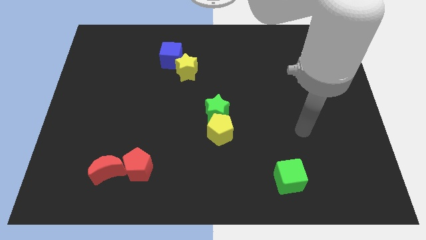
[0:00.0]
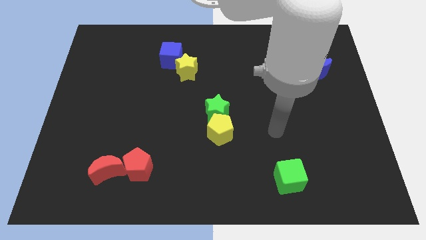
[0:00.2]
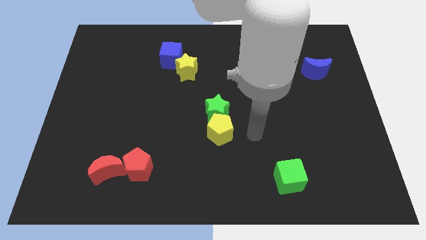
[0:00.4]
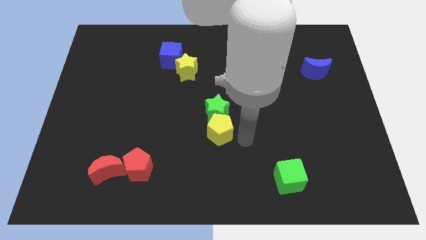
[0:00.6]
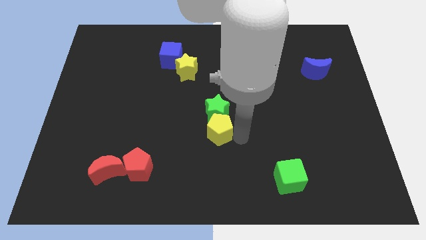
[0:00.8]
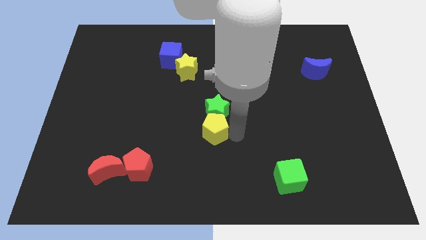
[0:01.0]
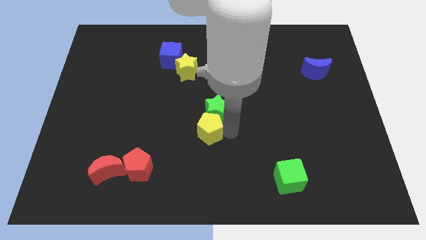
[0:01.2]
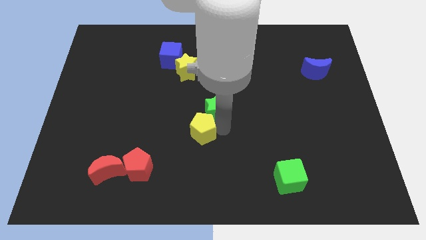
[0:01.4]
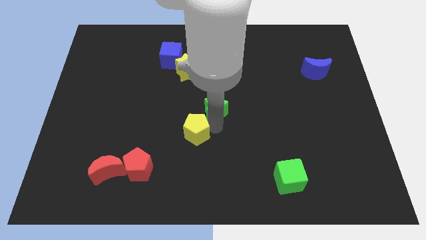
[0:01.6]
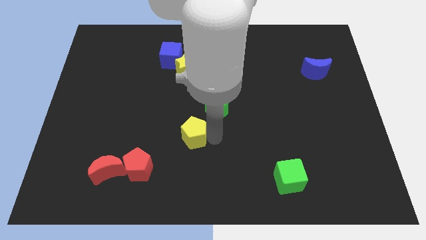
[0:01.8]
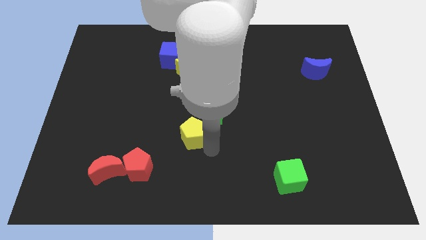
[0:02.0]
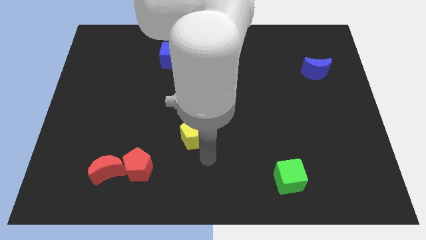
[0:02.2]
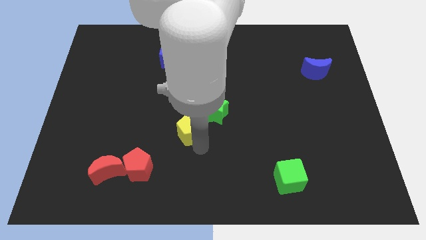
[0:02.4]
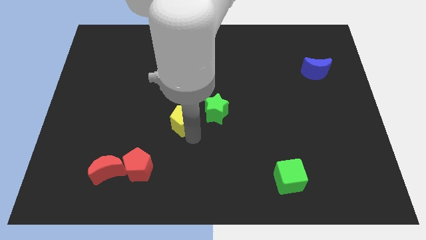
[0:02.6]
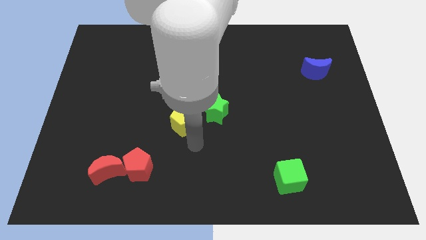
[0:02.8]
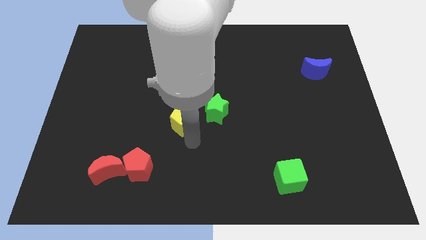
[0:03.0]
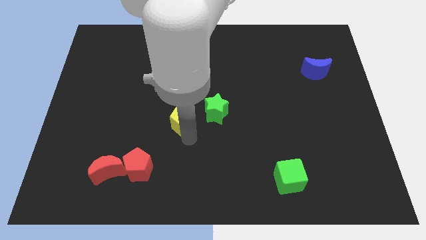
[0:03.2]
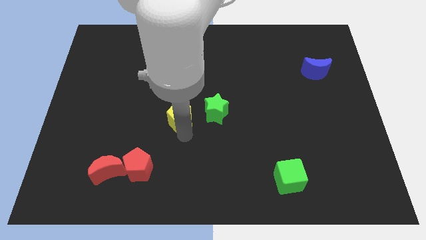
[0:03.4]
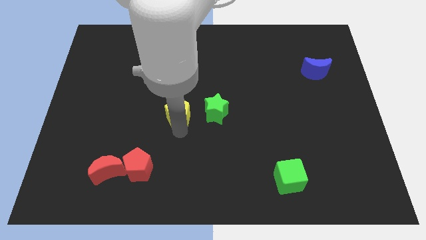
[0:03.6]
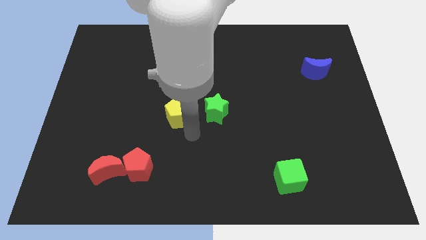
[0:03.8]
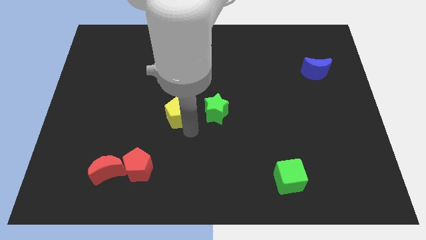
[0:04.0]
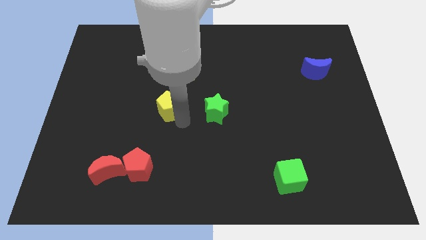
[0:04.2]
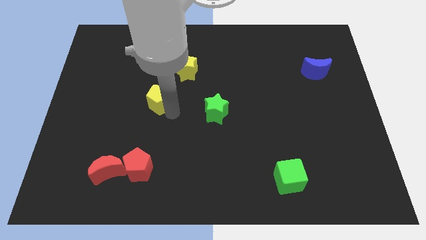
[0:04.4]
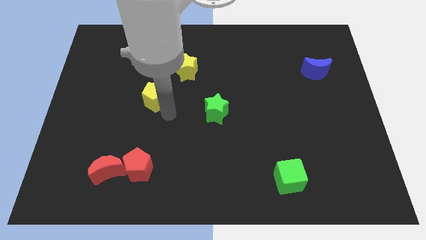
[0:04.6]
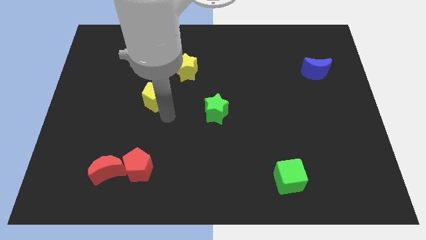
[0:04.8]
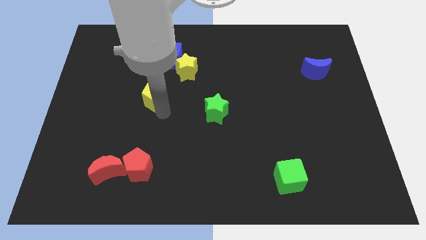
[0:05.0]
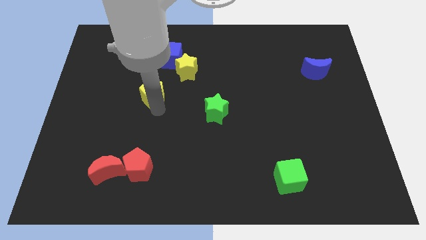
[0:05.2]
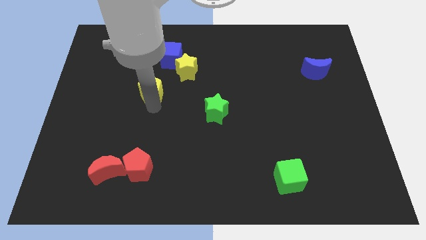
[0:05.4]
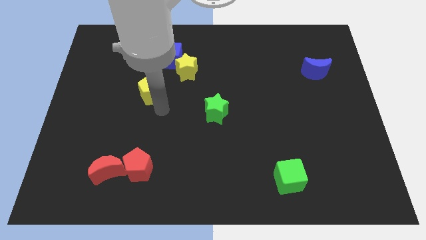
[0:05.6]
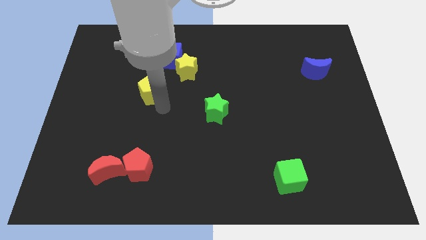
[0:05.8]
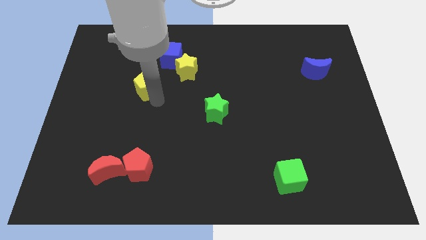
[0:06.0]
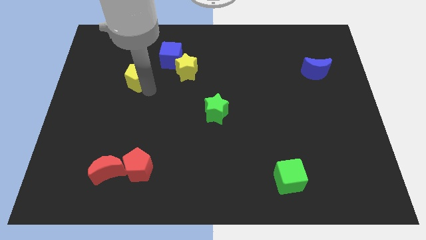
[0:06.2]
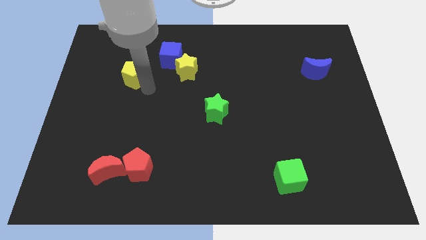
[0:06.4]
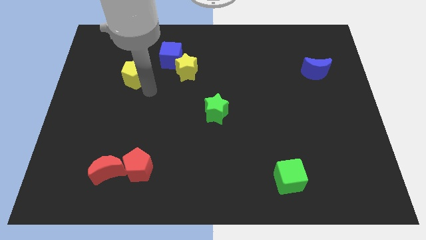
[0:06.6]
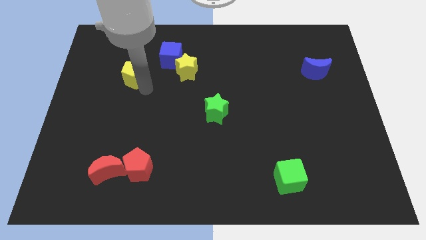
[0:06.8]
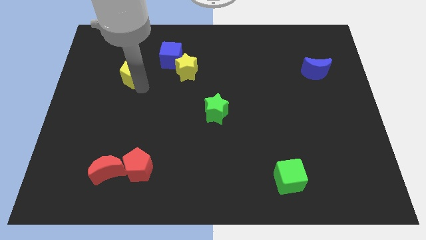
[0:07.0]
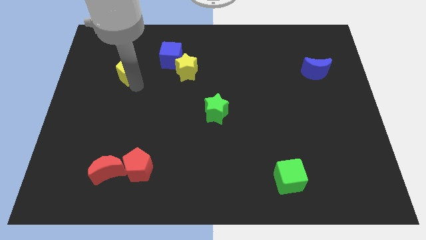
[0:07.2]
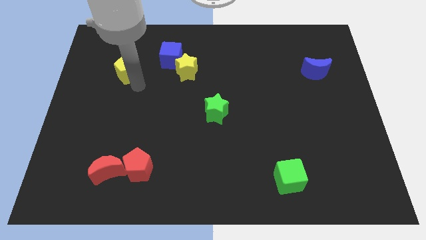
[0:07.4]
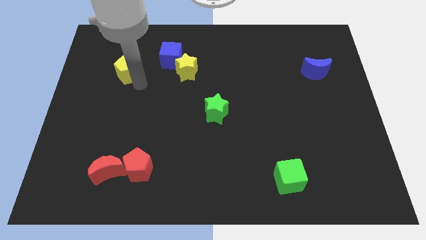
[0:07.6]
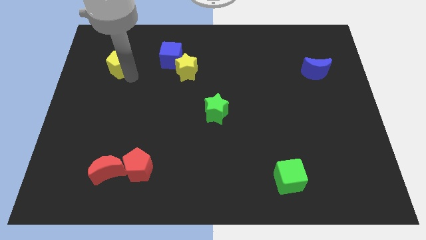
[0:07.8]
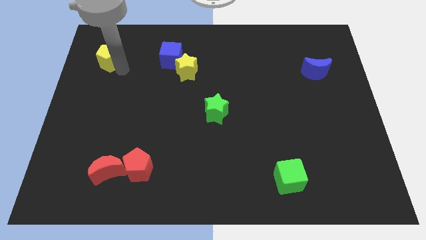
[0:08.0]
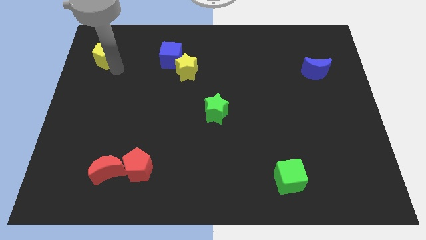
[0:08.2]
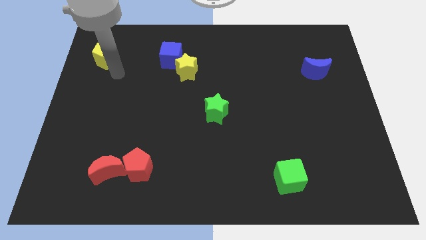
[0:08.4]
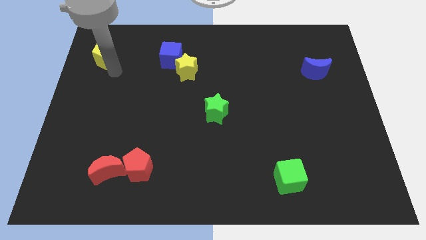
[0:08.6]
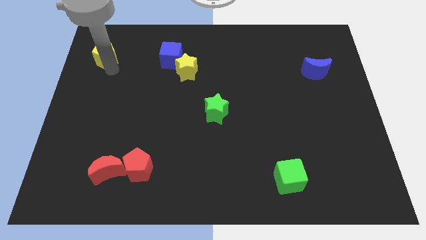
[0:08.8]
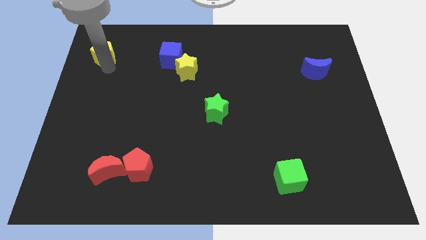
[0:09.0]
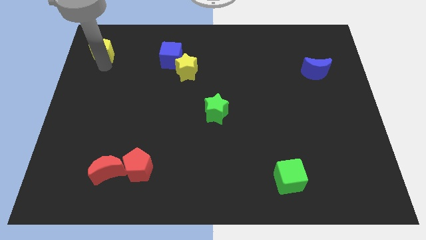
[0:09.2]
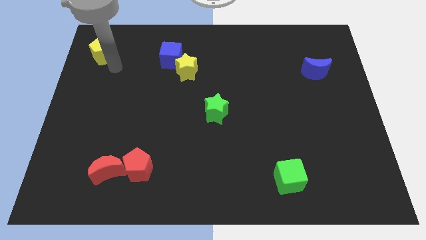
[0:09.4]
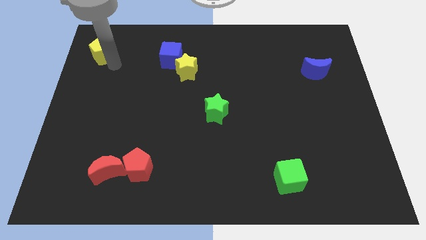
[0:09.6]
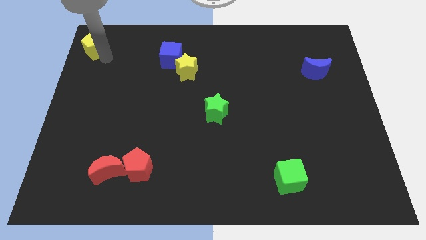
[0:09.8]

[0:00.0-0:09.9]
put the yellow pentagon to the upper left corner

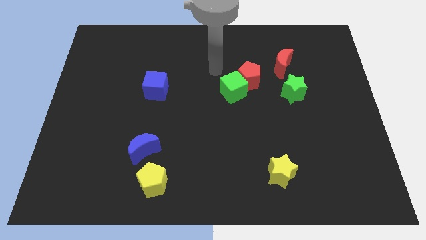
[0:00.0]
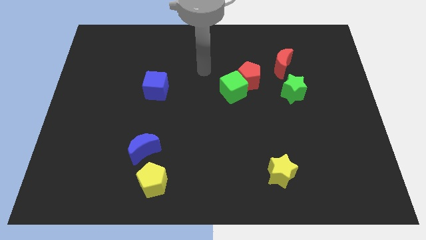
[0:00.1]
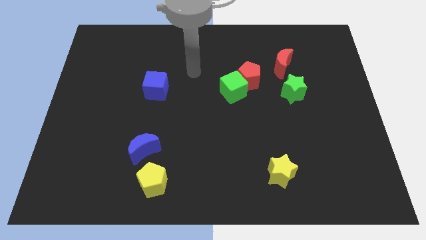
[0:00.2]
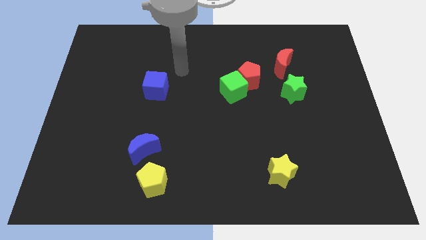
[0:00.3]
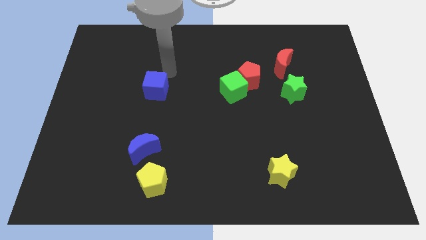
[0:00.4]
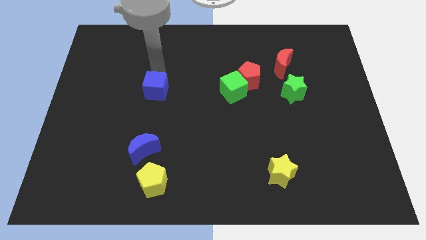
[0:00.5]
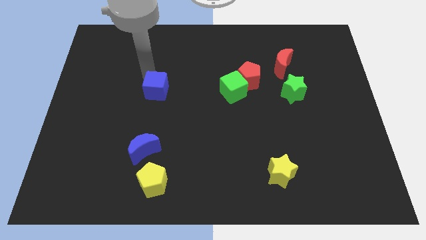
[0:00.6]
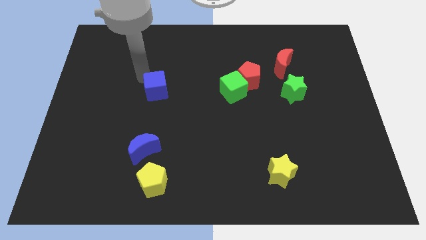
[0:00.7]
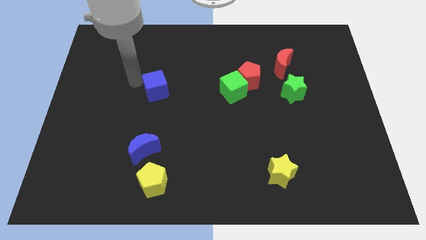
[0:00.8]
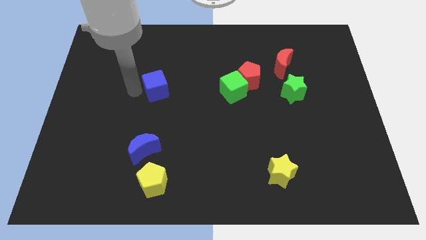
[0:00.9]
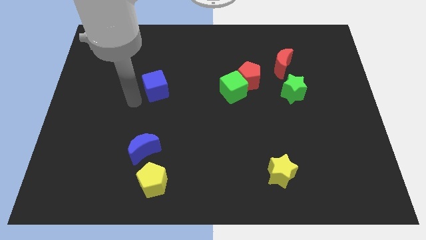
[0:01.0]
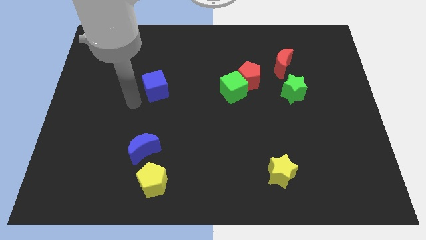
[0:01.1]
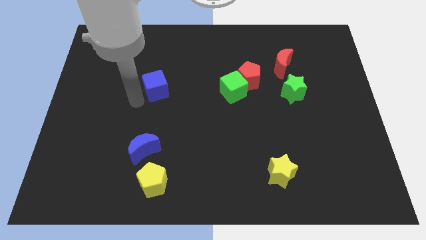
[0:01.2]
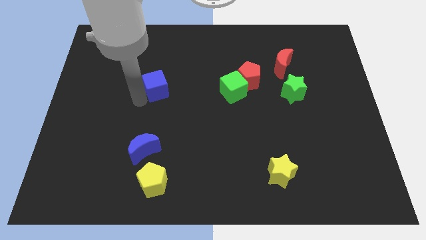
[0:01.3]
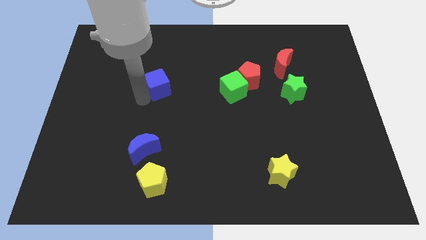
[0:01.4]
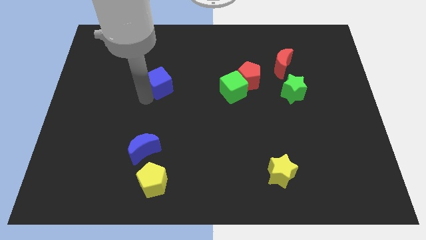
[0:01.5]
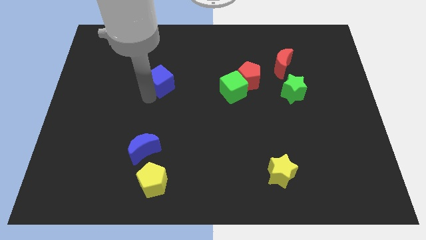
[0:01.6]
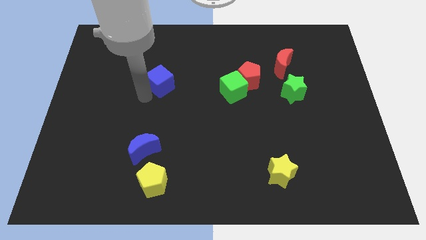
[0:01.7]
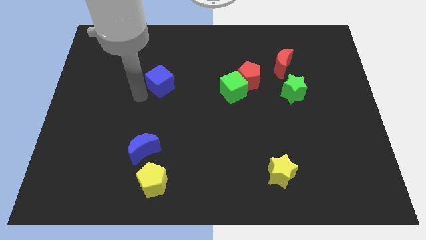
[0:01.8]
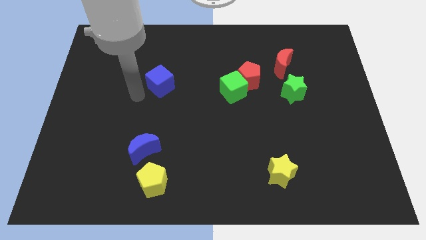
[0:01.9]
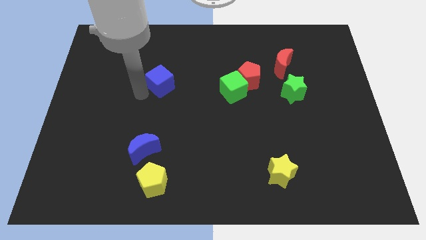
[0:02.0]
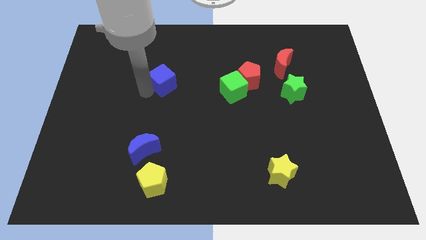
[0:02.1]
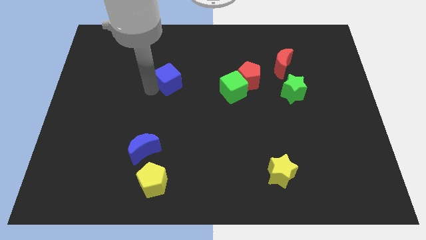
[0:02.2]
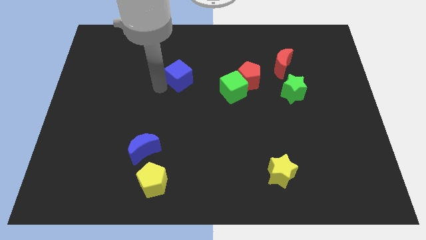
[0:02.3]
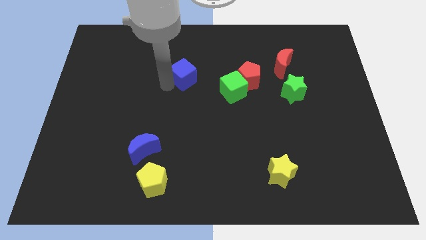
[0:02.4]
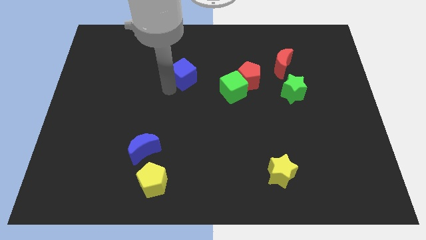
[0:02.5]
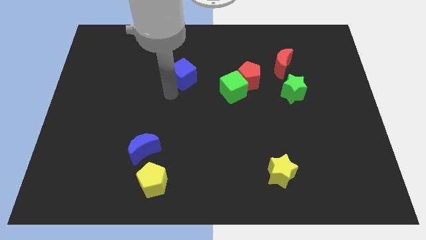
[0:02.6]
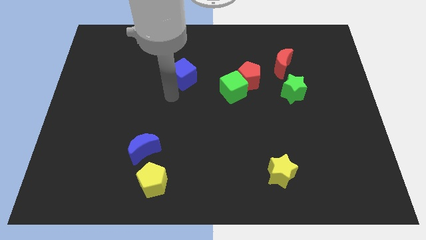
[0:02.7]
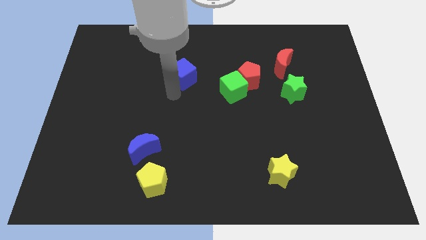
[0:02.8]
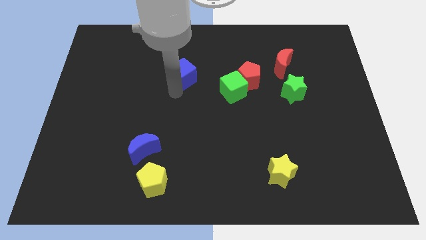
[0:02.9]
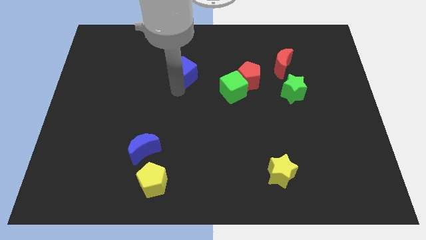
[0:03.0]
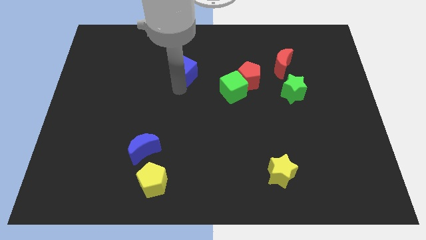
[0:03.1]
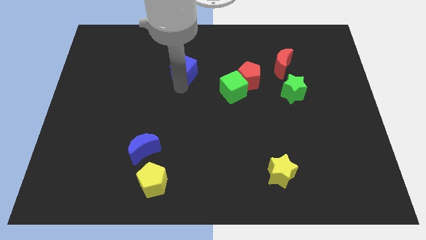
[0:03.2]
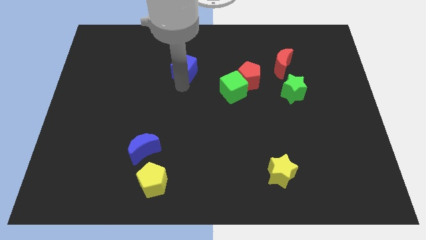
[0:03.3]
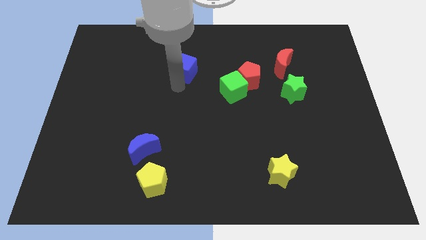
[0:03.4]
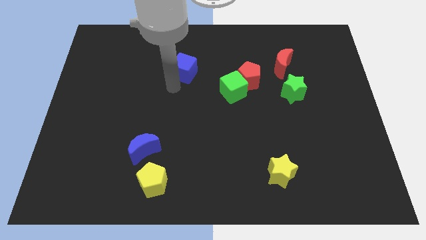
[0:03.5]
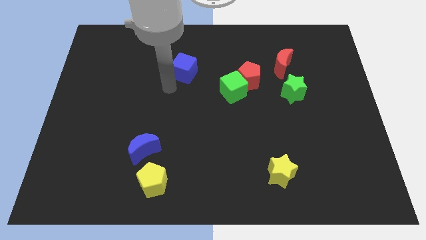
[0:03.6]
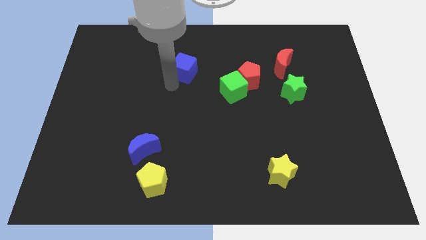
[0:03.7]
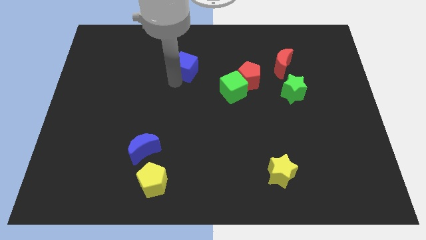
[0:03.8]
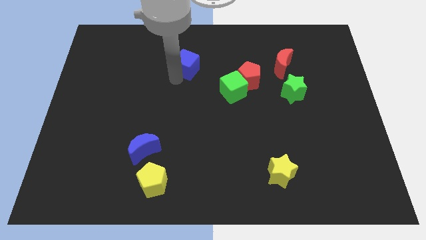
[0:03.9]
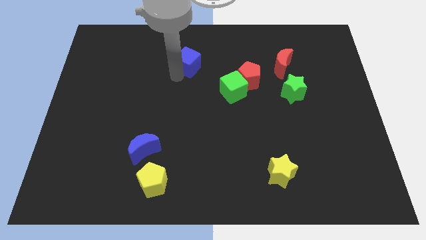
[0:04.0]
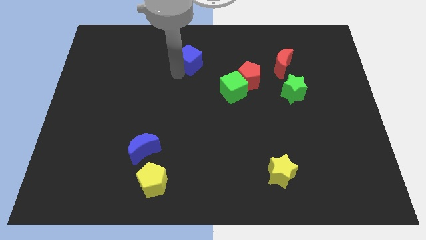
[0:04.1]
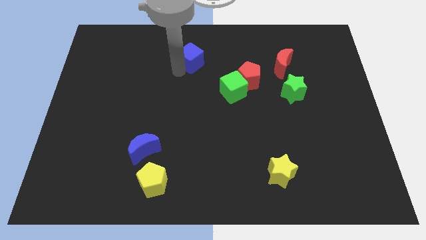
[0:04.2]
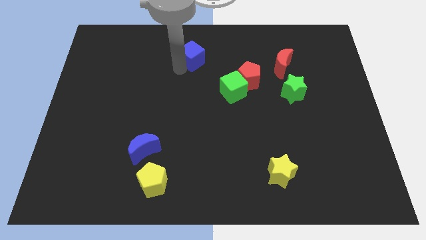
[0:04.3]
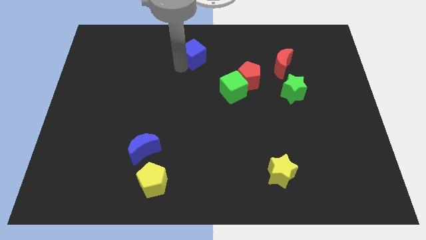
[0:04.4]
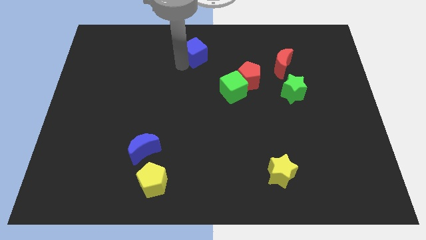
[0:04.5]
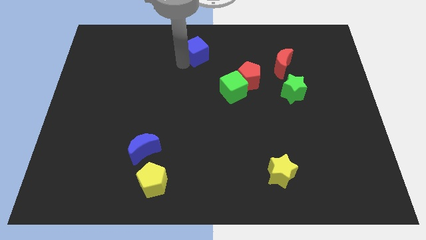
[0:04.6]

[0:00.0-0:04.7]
slide the blue cube to the towards your base
